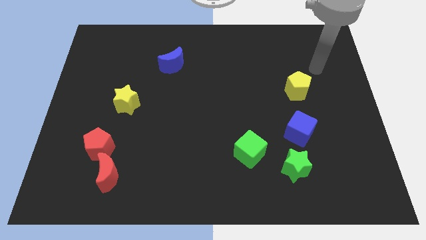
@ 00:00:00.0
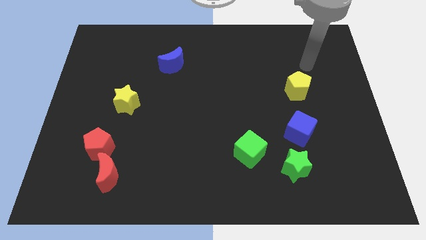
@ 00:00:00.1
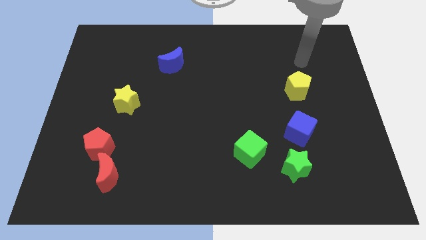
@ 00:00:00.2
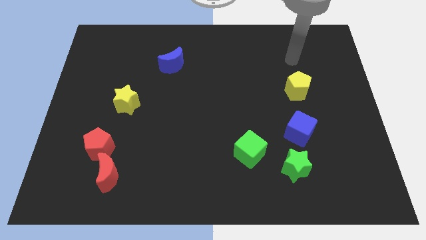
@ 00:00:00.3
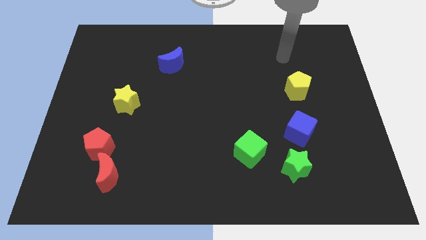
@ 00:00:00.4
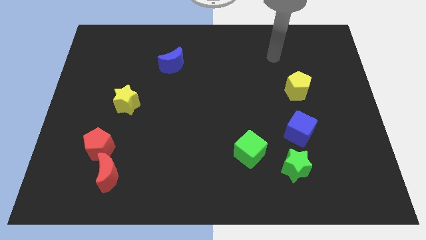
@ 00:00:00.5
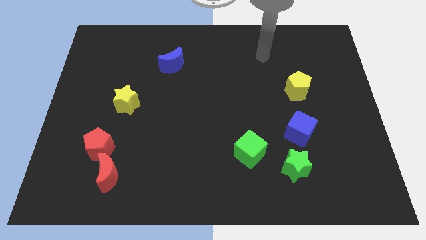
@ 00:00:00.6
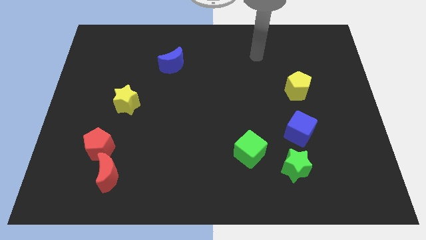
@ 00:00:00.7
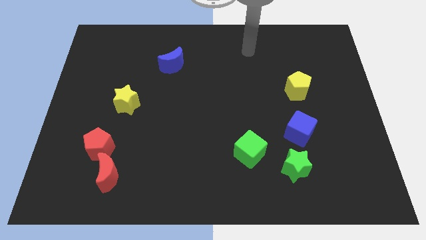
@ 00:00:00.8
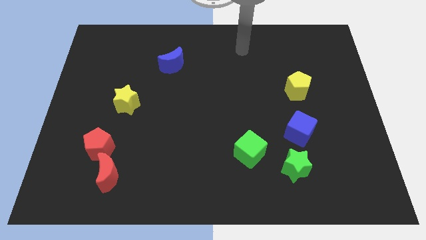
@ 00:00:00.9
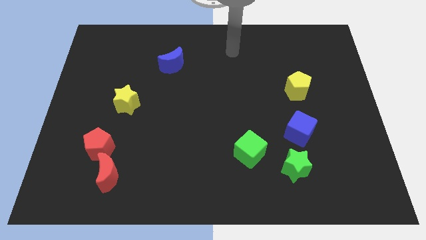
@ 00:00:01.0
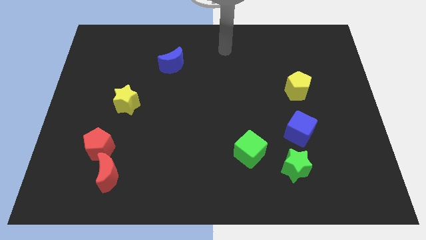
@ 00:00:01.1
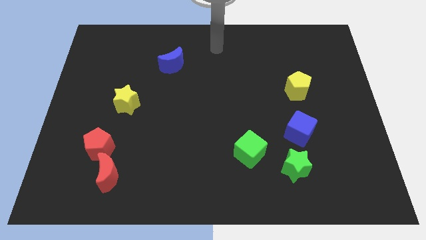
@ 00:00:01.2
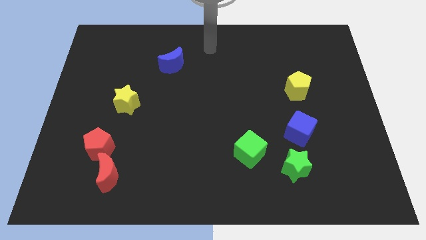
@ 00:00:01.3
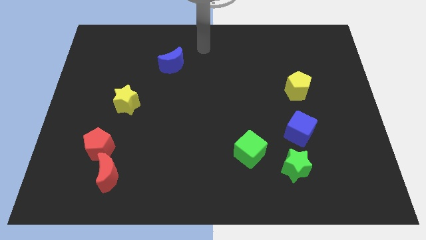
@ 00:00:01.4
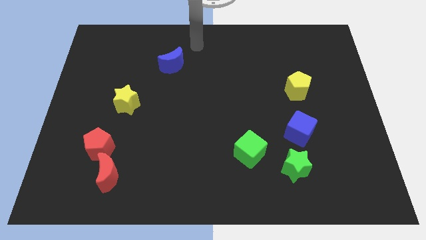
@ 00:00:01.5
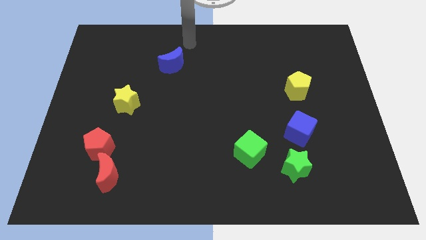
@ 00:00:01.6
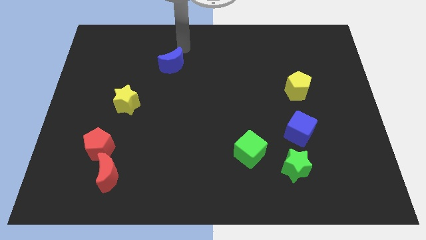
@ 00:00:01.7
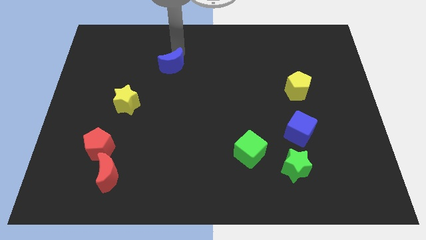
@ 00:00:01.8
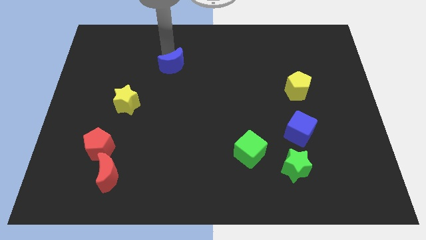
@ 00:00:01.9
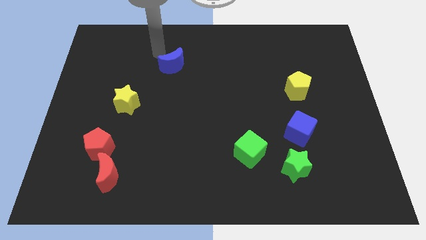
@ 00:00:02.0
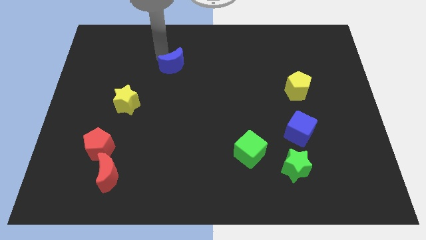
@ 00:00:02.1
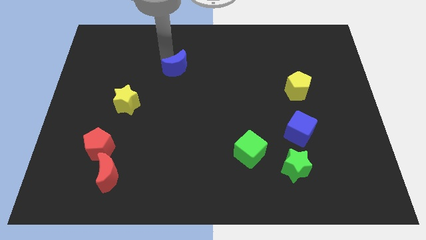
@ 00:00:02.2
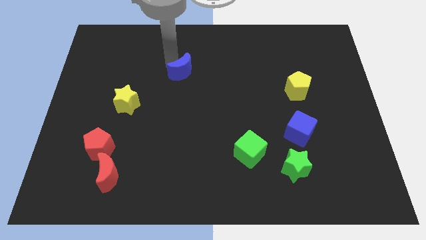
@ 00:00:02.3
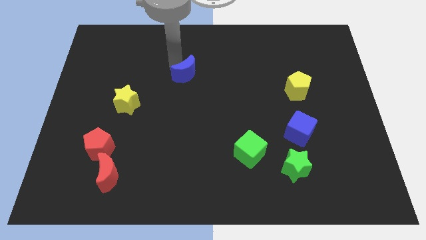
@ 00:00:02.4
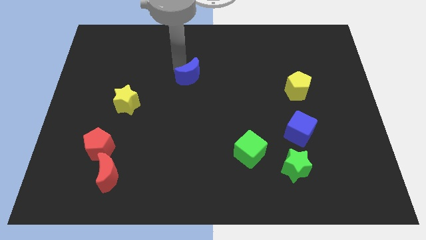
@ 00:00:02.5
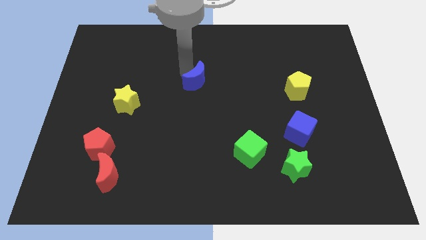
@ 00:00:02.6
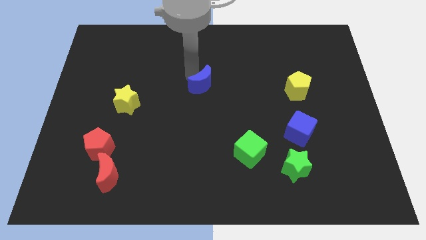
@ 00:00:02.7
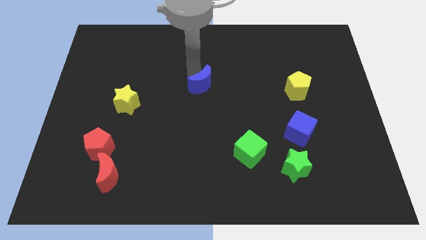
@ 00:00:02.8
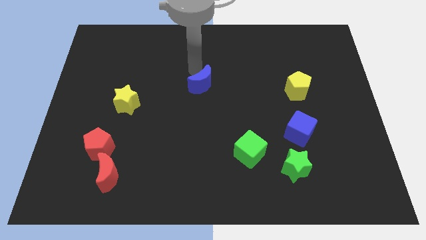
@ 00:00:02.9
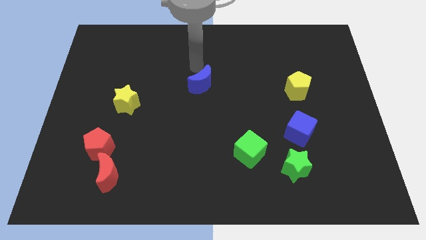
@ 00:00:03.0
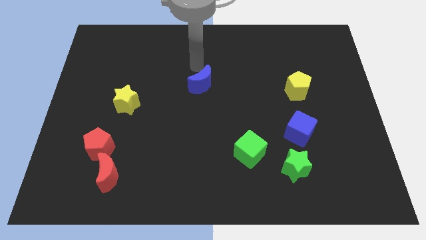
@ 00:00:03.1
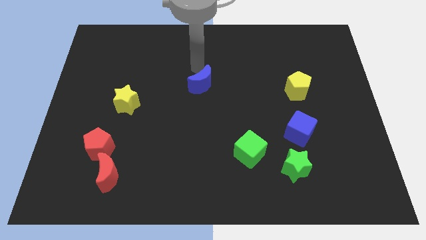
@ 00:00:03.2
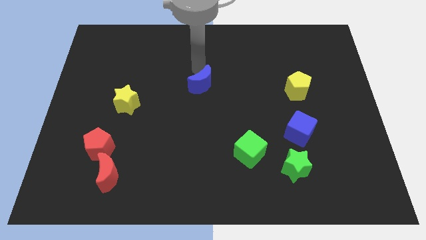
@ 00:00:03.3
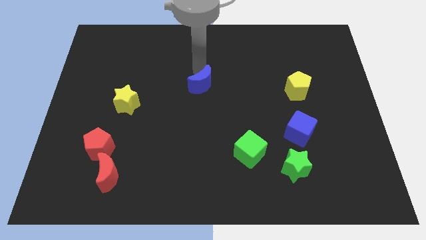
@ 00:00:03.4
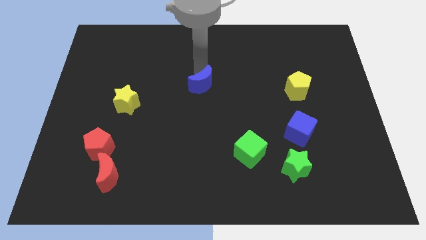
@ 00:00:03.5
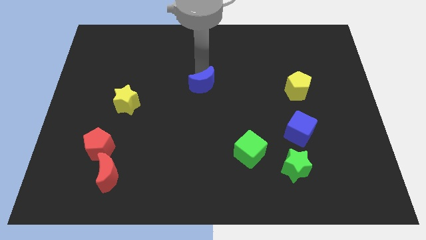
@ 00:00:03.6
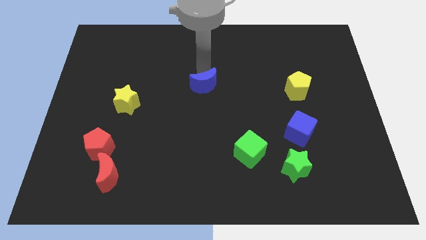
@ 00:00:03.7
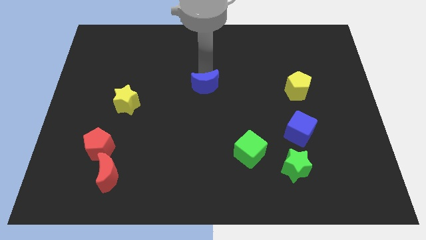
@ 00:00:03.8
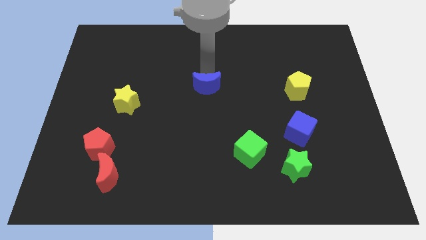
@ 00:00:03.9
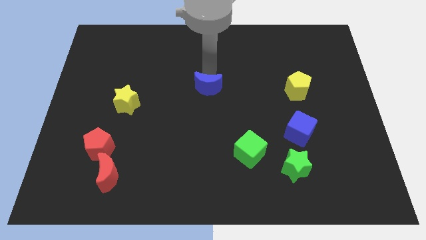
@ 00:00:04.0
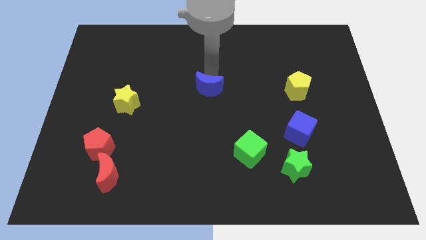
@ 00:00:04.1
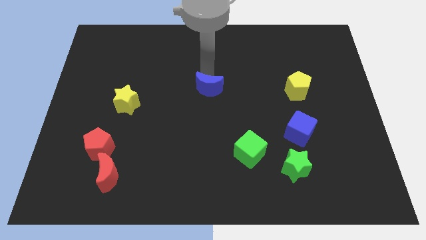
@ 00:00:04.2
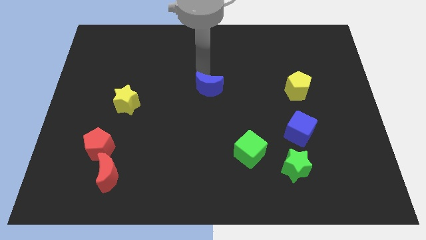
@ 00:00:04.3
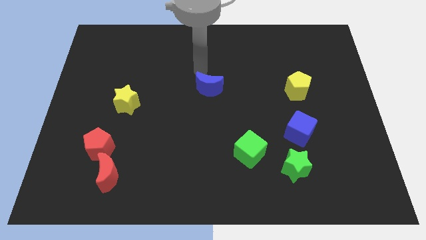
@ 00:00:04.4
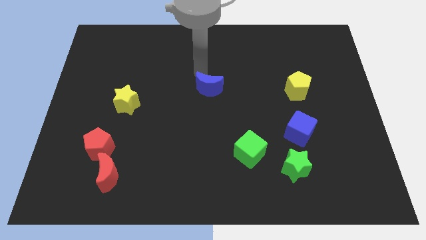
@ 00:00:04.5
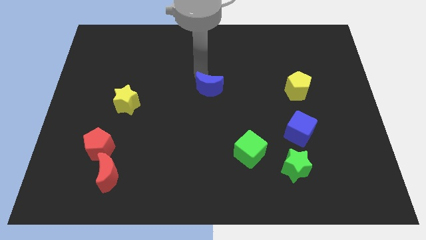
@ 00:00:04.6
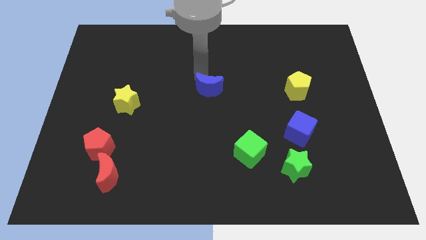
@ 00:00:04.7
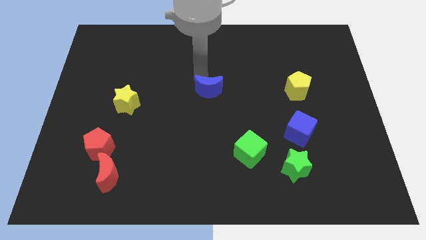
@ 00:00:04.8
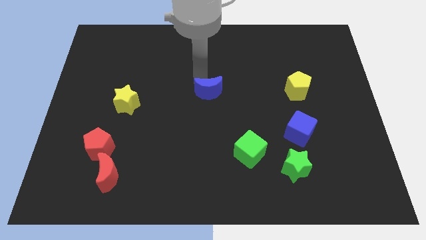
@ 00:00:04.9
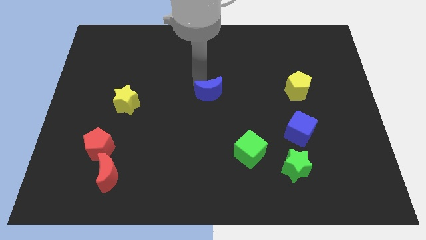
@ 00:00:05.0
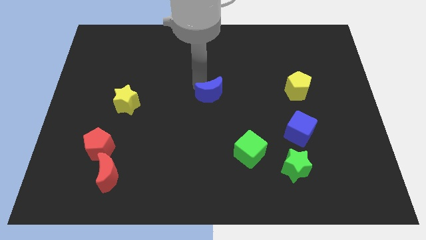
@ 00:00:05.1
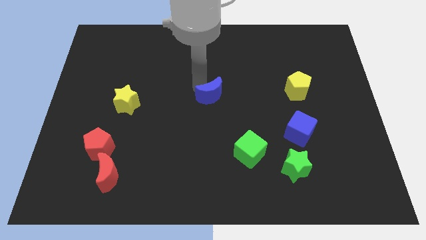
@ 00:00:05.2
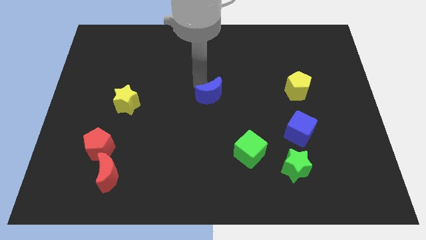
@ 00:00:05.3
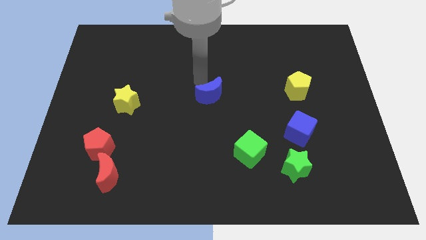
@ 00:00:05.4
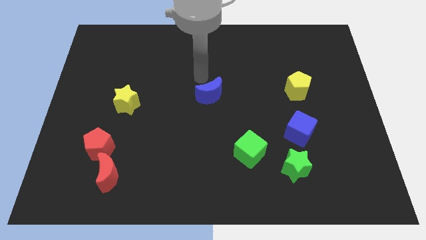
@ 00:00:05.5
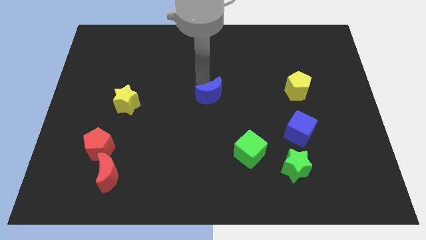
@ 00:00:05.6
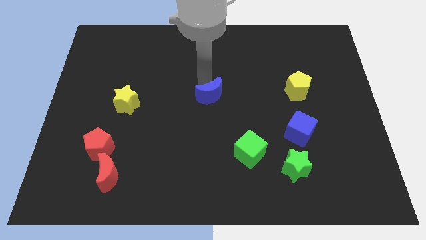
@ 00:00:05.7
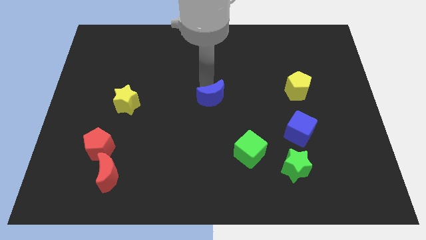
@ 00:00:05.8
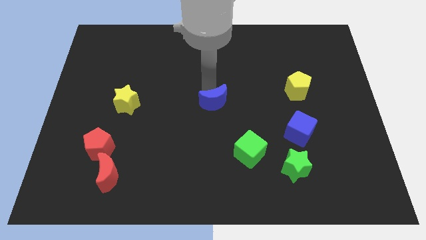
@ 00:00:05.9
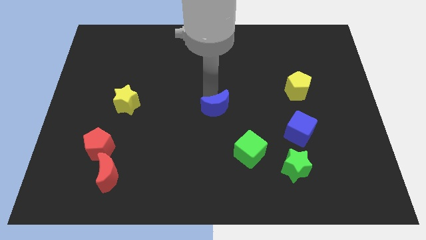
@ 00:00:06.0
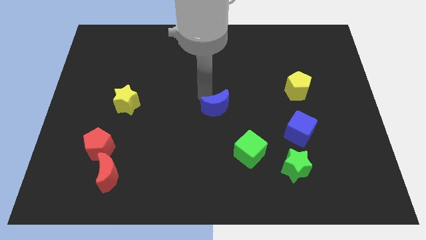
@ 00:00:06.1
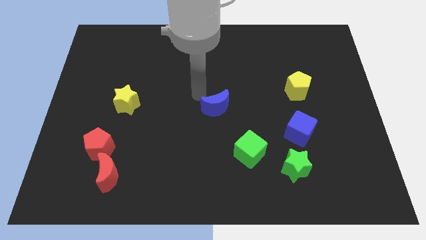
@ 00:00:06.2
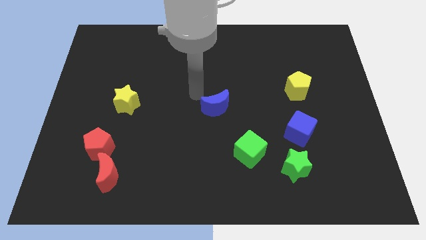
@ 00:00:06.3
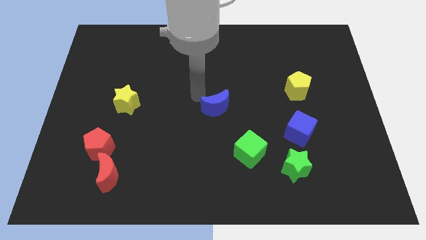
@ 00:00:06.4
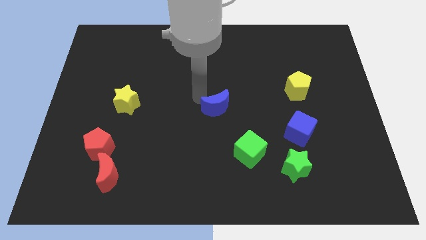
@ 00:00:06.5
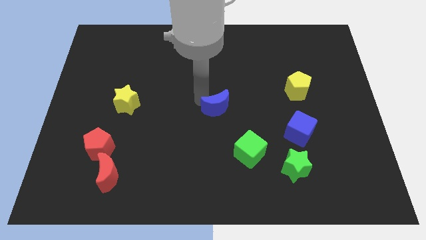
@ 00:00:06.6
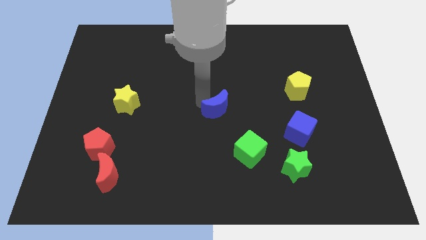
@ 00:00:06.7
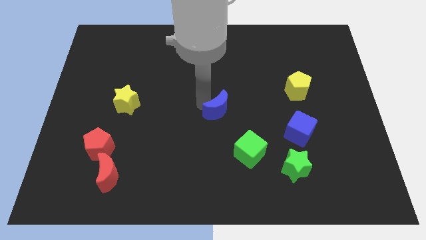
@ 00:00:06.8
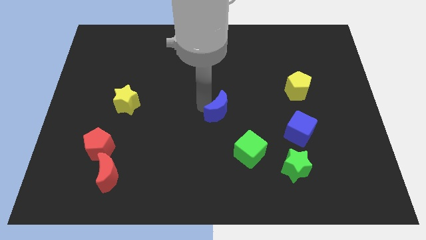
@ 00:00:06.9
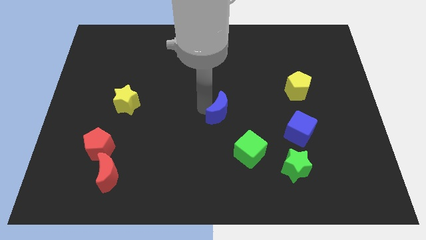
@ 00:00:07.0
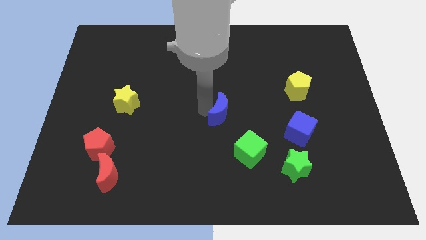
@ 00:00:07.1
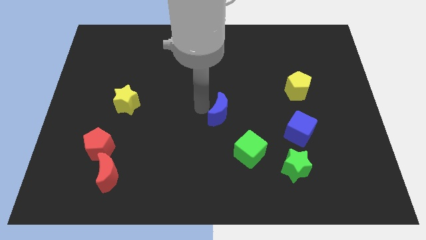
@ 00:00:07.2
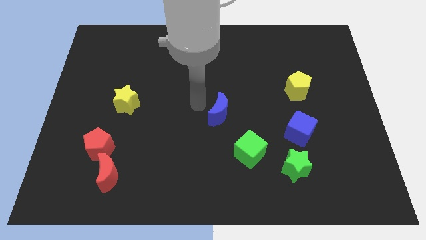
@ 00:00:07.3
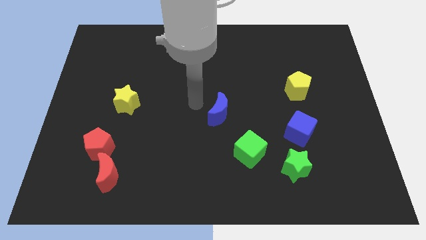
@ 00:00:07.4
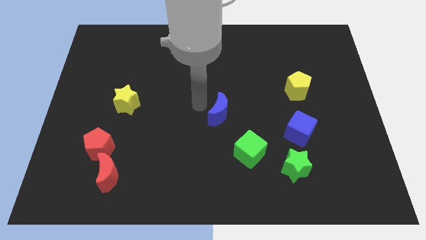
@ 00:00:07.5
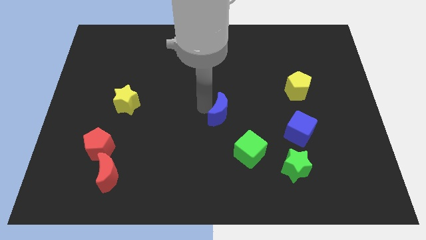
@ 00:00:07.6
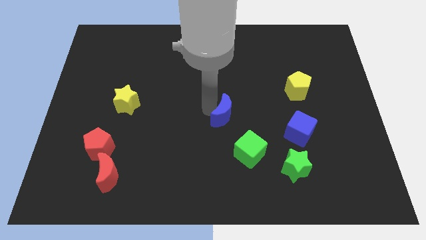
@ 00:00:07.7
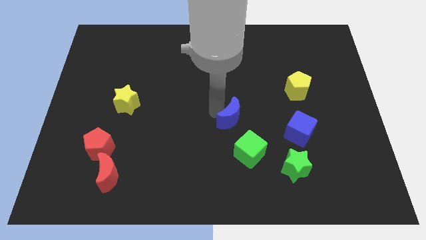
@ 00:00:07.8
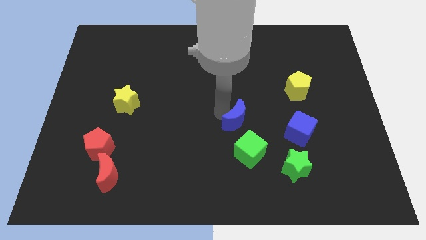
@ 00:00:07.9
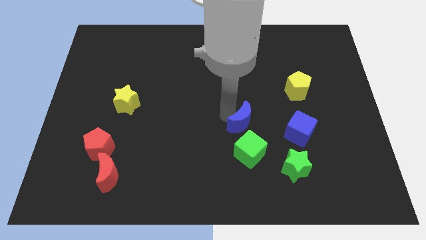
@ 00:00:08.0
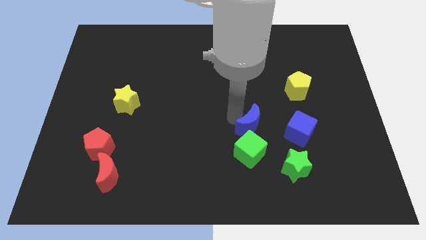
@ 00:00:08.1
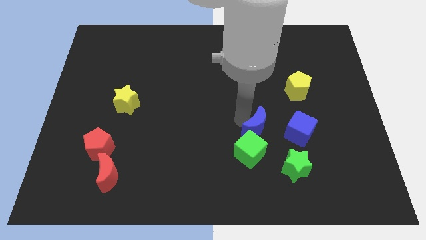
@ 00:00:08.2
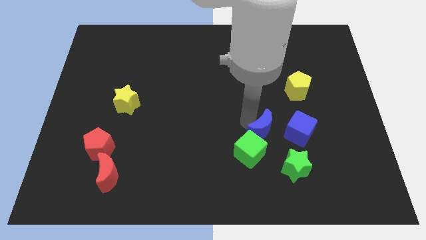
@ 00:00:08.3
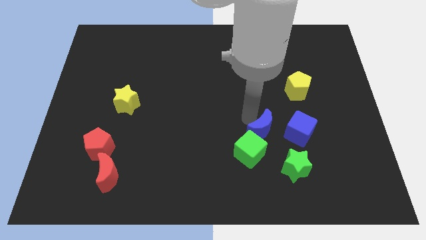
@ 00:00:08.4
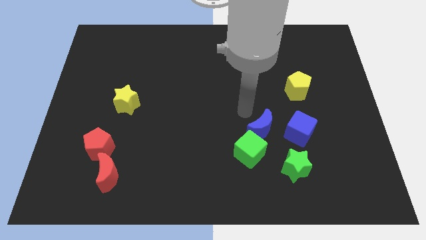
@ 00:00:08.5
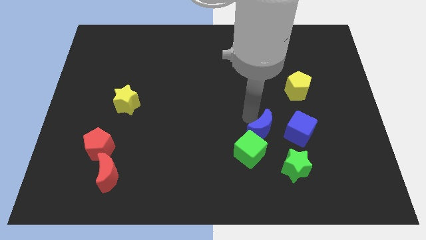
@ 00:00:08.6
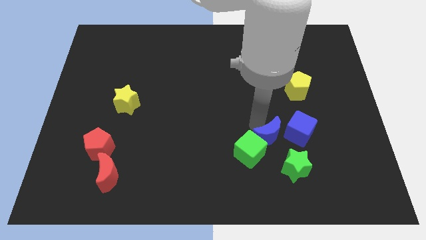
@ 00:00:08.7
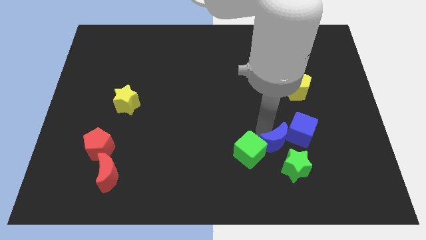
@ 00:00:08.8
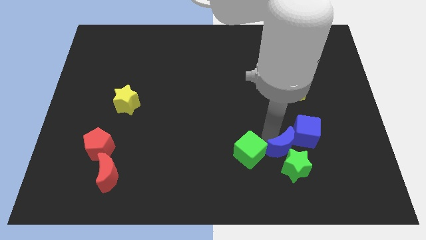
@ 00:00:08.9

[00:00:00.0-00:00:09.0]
push the blue moon next to the green star
